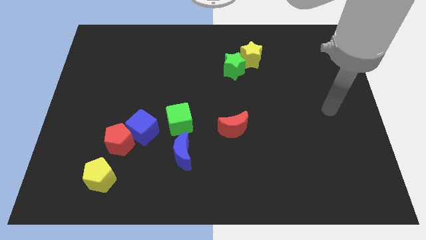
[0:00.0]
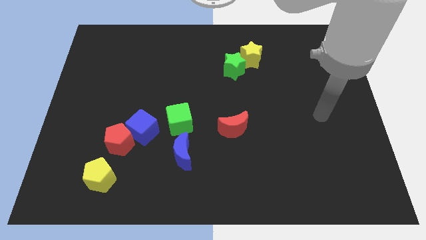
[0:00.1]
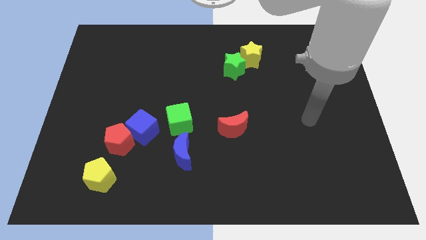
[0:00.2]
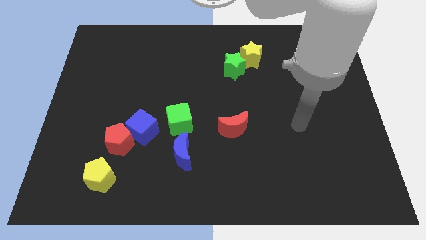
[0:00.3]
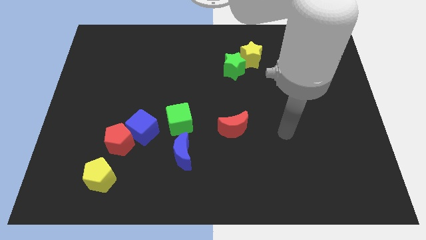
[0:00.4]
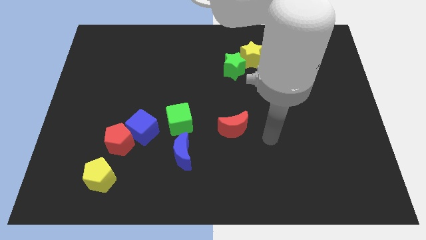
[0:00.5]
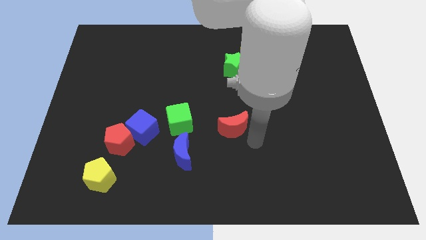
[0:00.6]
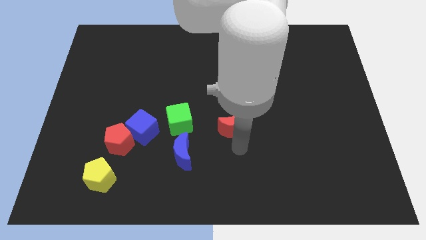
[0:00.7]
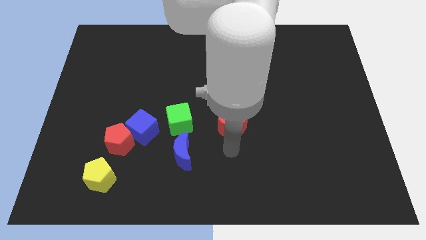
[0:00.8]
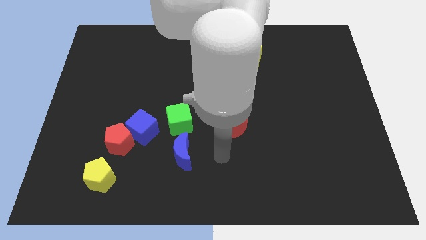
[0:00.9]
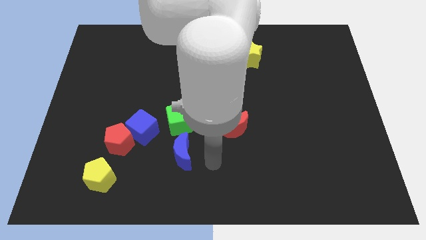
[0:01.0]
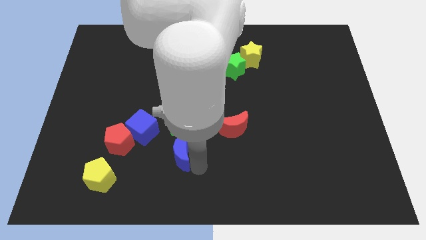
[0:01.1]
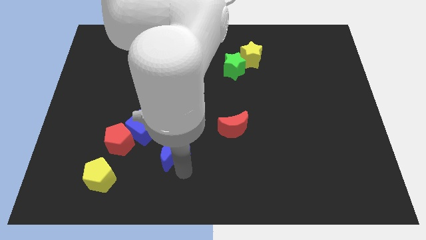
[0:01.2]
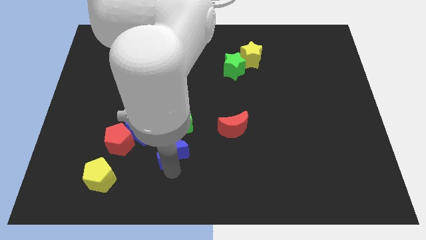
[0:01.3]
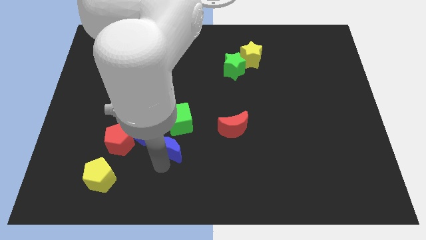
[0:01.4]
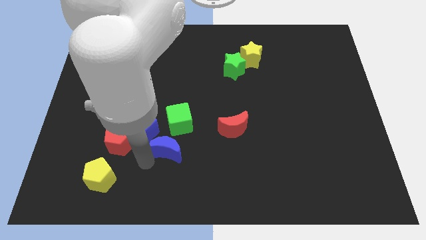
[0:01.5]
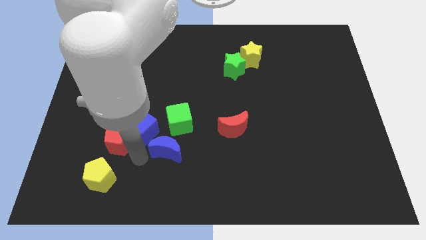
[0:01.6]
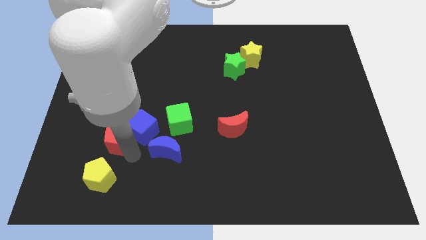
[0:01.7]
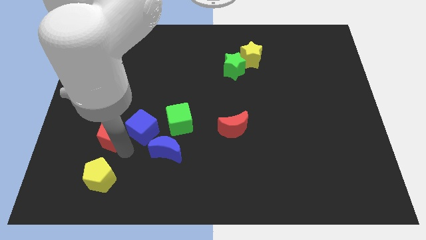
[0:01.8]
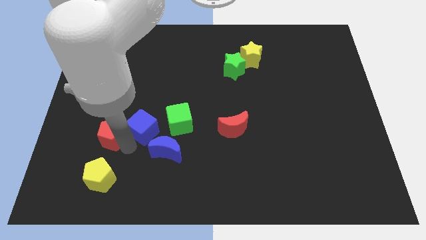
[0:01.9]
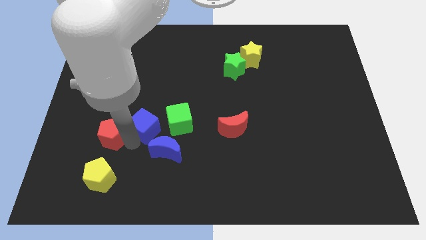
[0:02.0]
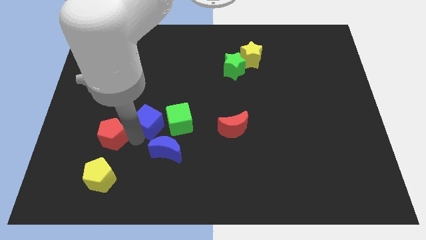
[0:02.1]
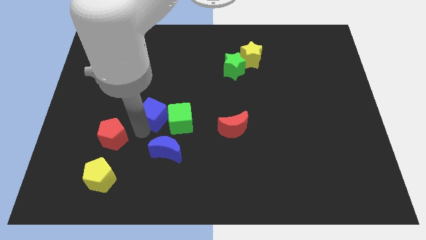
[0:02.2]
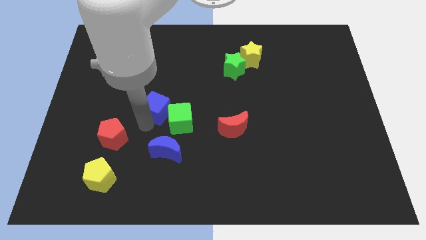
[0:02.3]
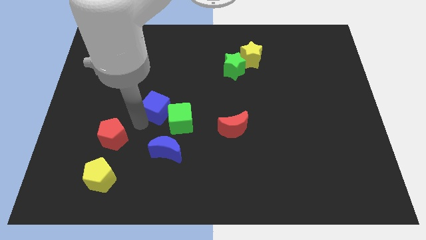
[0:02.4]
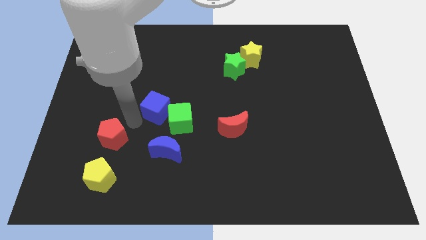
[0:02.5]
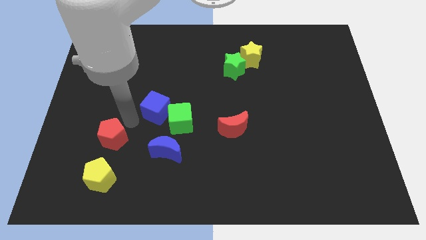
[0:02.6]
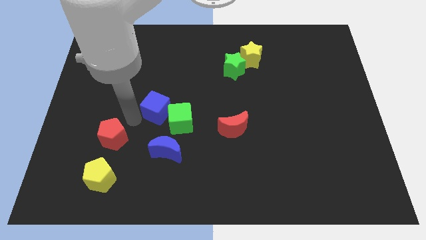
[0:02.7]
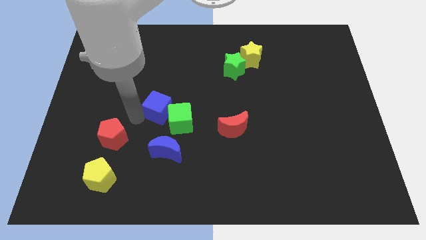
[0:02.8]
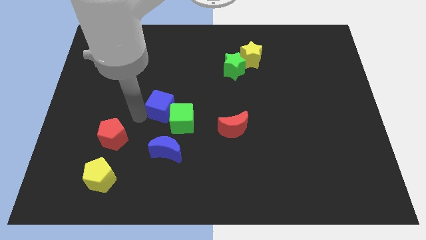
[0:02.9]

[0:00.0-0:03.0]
slightly move the blue cube diagonally upwards and right

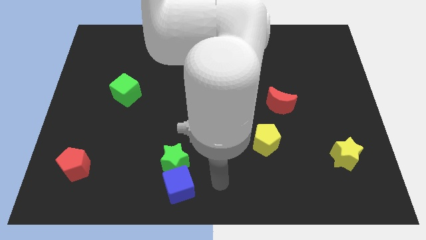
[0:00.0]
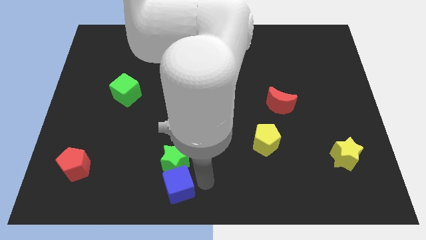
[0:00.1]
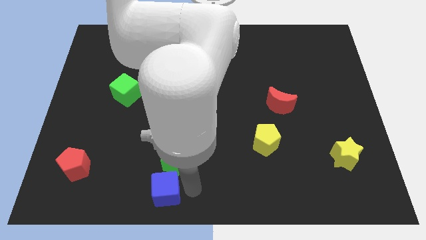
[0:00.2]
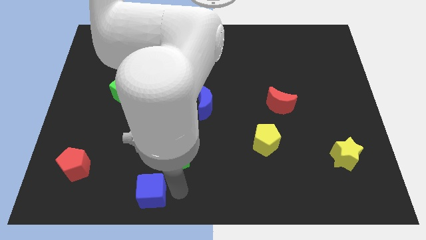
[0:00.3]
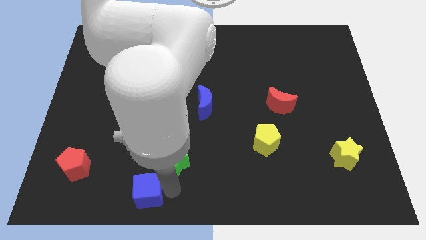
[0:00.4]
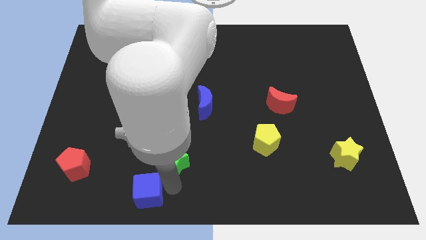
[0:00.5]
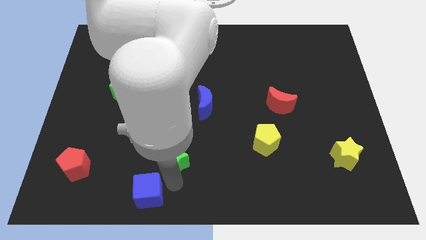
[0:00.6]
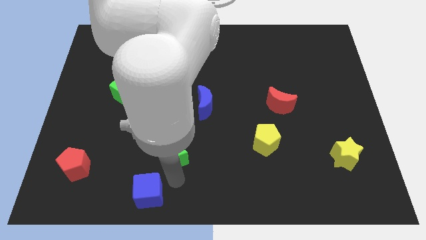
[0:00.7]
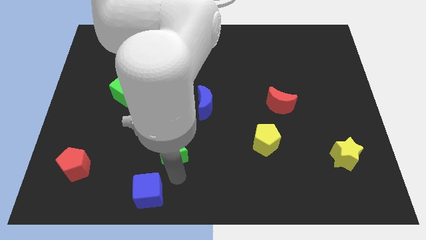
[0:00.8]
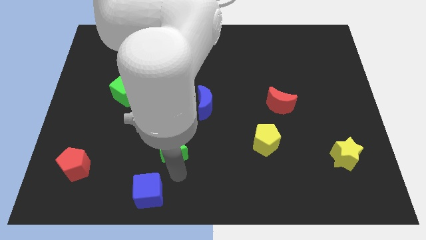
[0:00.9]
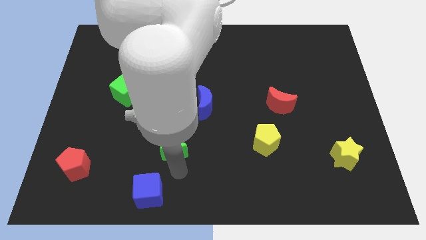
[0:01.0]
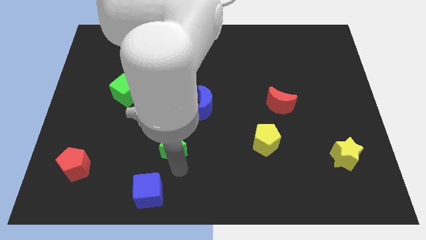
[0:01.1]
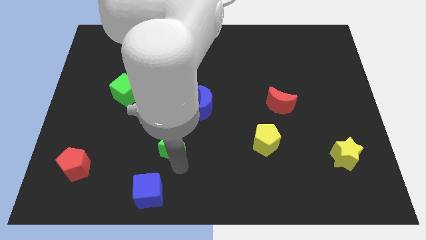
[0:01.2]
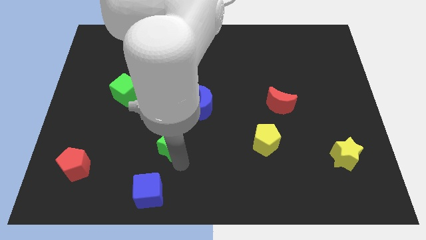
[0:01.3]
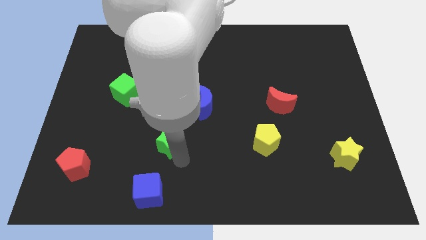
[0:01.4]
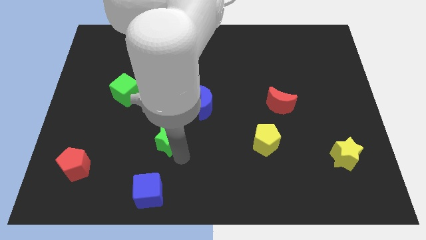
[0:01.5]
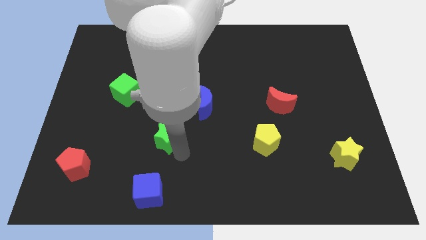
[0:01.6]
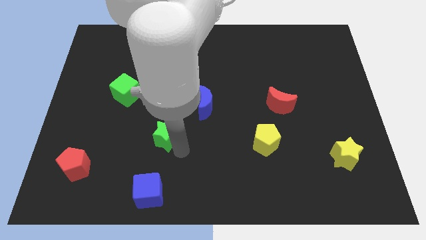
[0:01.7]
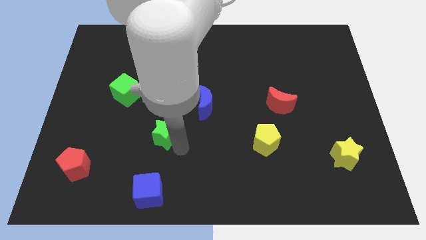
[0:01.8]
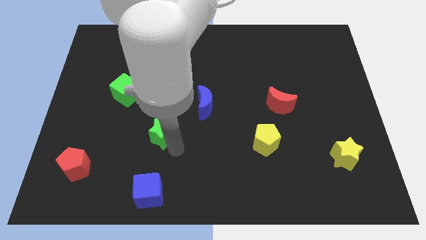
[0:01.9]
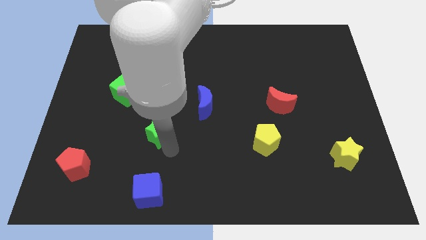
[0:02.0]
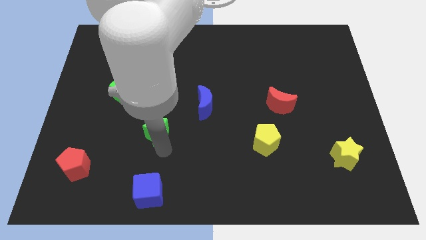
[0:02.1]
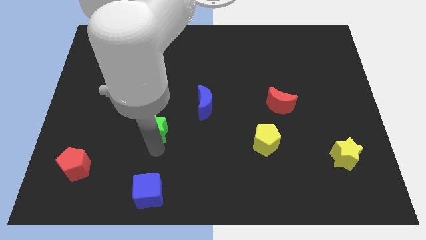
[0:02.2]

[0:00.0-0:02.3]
slightly slide the green star up

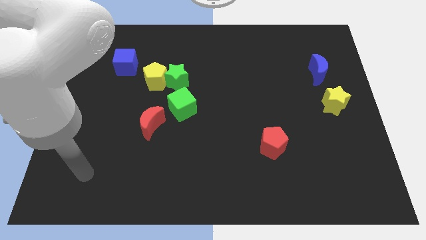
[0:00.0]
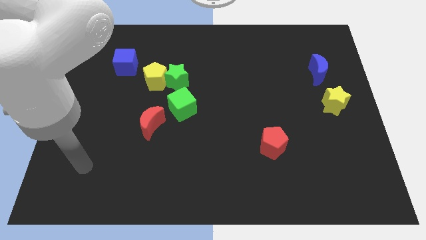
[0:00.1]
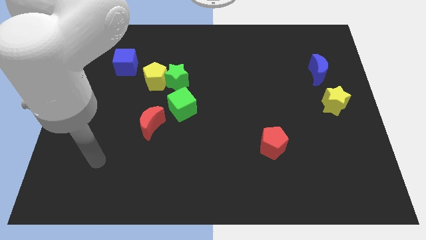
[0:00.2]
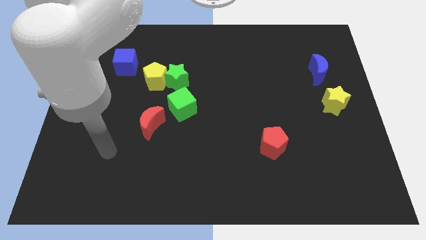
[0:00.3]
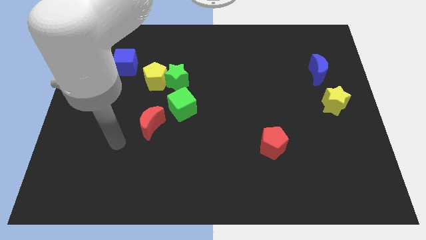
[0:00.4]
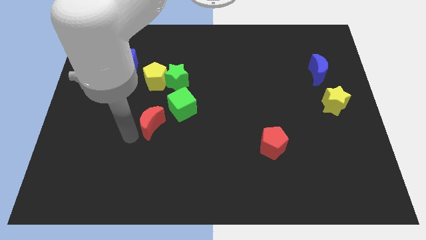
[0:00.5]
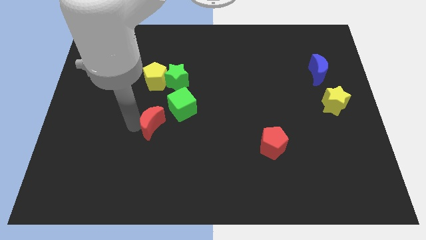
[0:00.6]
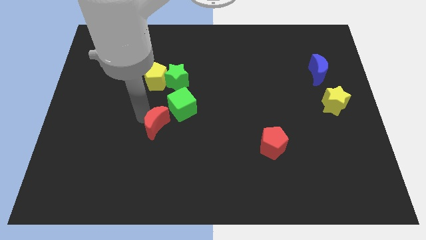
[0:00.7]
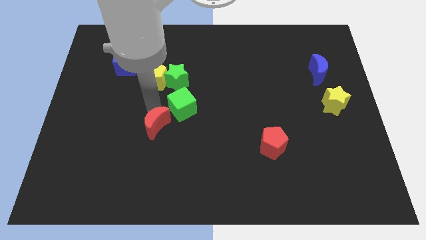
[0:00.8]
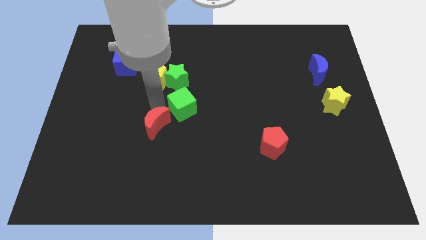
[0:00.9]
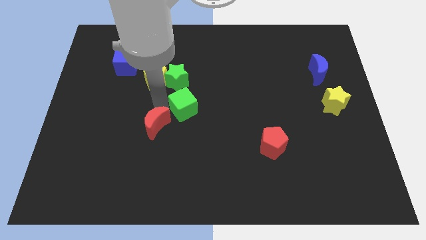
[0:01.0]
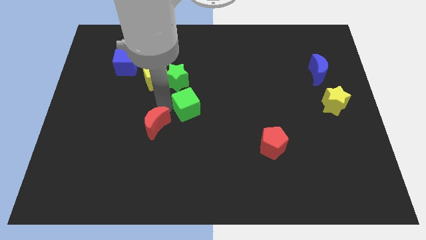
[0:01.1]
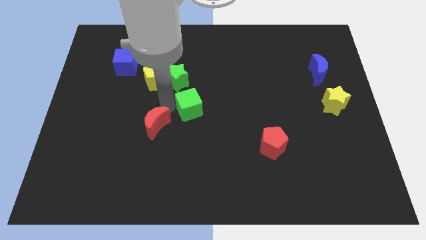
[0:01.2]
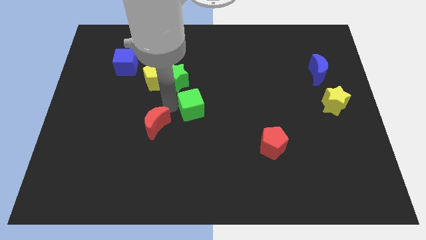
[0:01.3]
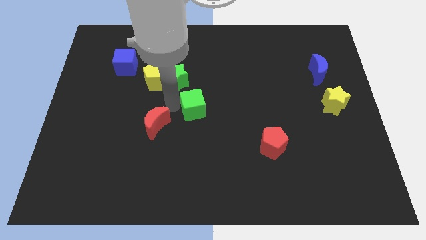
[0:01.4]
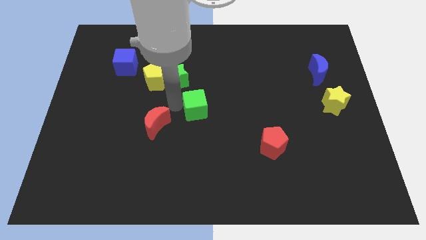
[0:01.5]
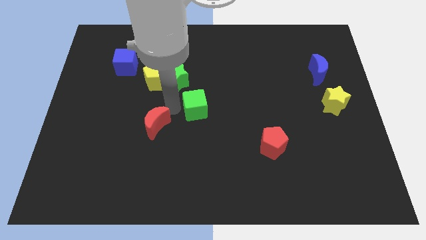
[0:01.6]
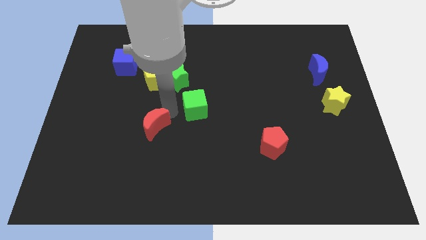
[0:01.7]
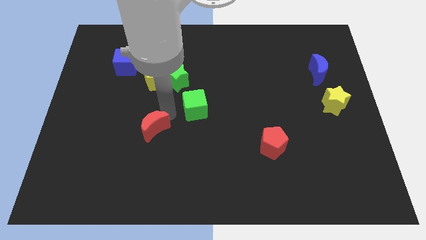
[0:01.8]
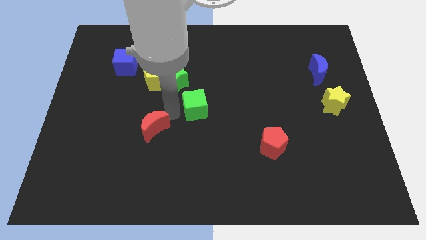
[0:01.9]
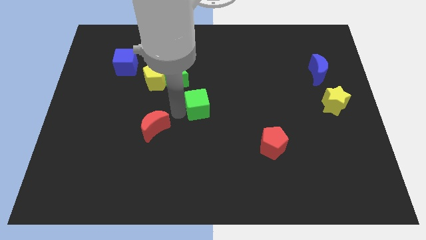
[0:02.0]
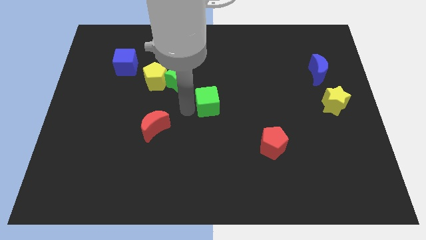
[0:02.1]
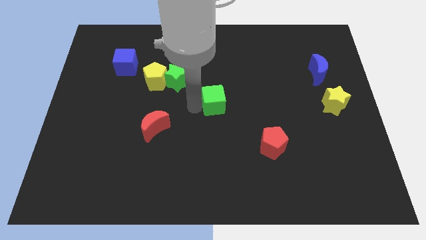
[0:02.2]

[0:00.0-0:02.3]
slightly push the green cube to the right

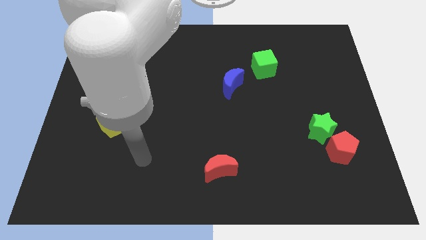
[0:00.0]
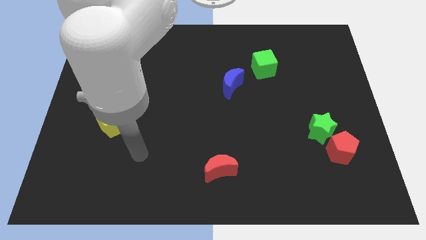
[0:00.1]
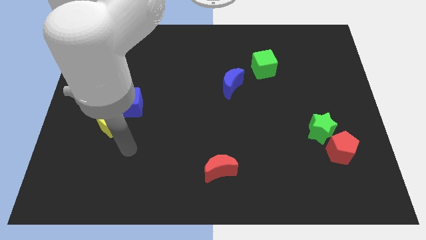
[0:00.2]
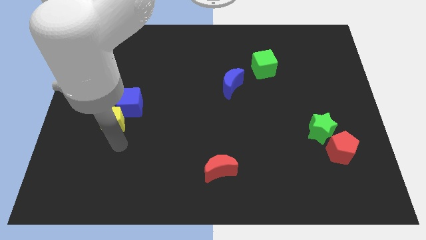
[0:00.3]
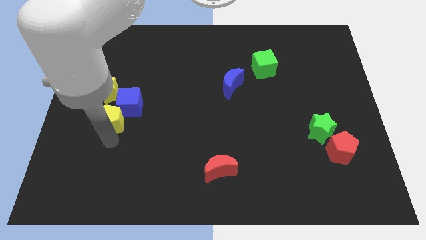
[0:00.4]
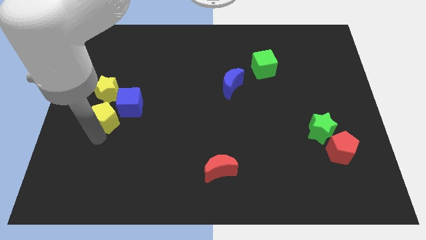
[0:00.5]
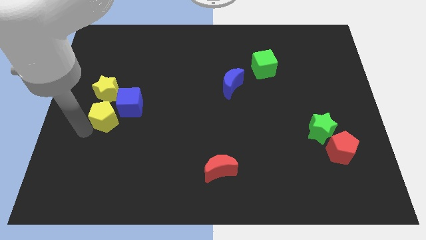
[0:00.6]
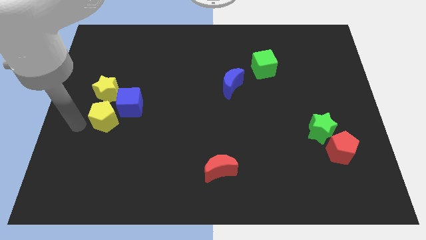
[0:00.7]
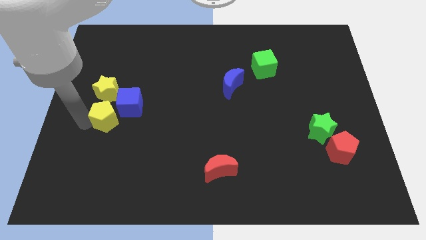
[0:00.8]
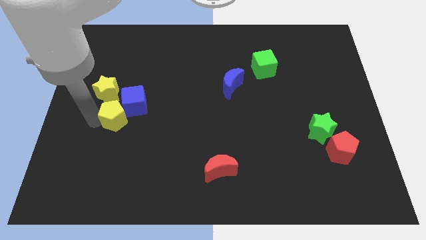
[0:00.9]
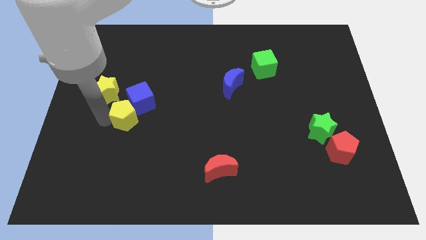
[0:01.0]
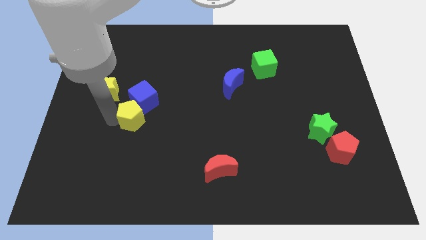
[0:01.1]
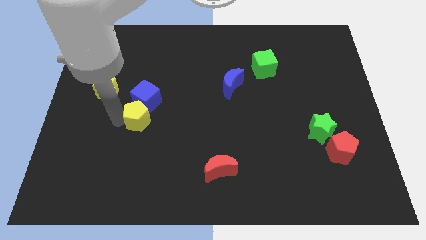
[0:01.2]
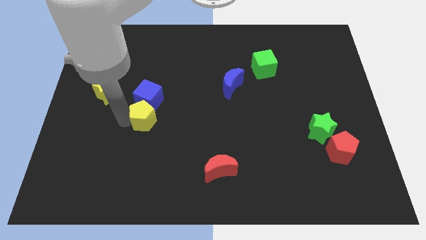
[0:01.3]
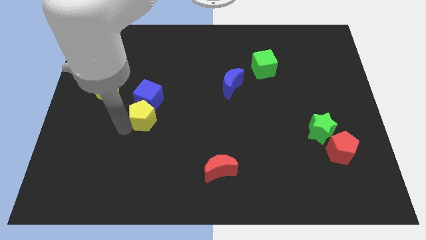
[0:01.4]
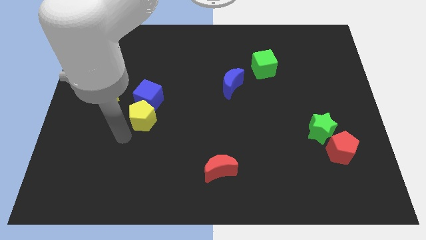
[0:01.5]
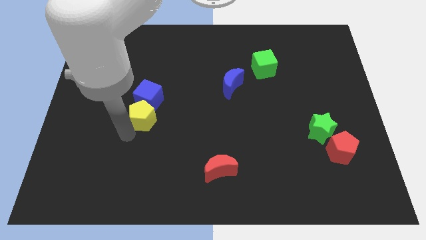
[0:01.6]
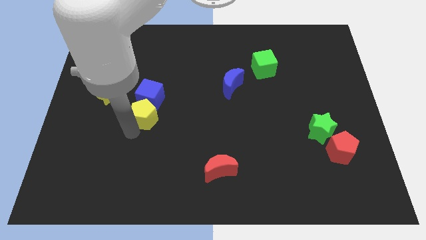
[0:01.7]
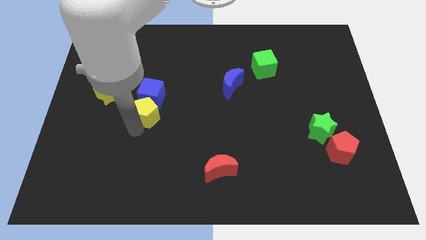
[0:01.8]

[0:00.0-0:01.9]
slightly slide the yellow pentagon upwards and then to the right
